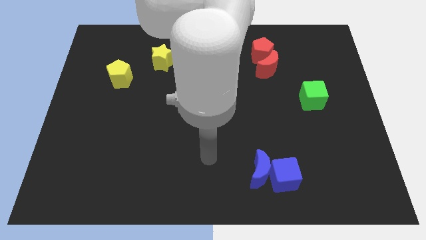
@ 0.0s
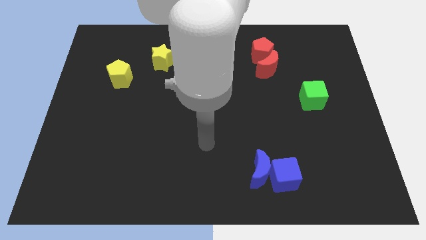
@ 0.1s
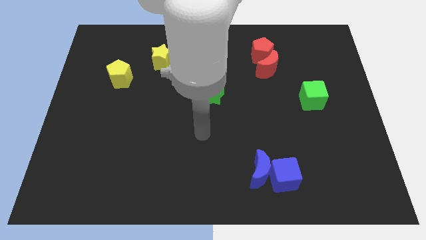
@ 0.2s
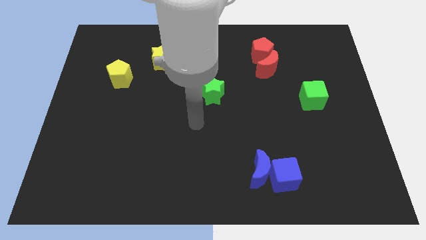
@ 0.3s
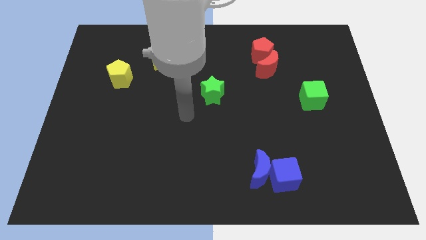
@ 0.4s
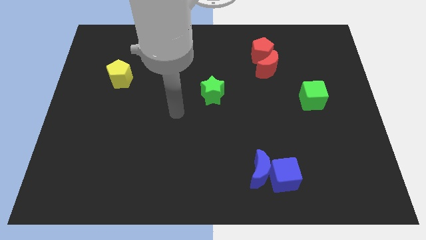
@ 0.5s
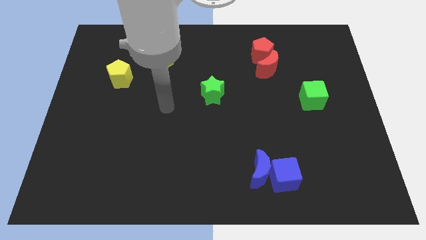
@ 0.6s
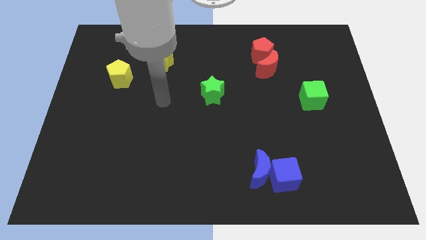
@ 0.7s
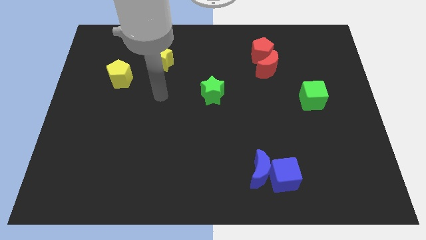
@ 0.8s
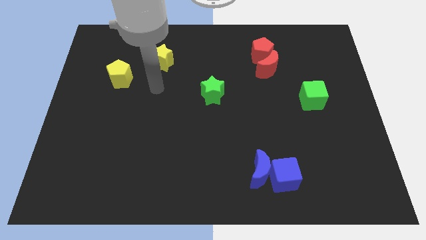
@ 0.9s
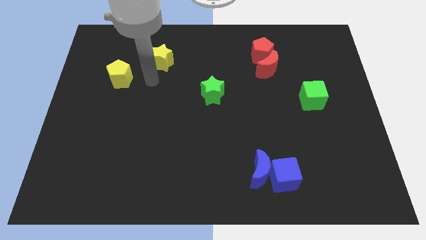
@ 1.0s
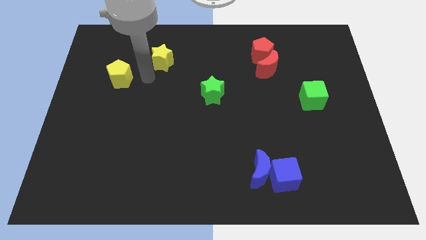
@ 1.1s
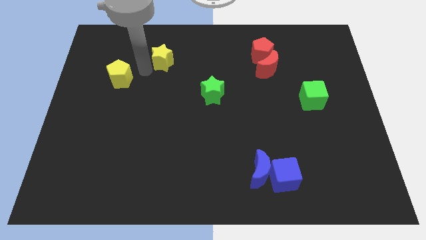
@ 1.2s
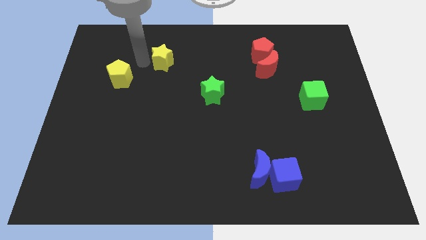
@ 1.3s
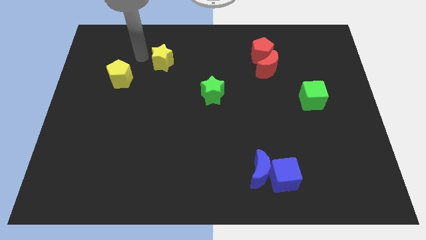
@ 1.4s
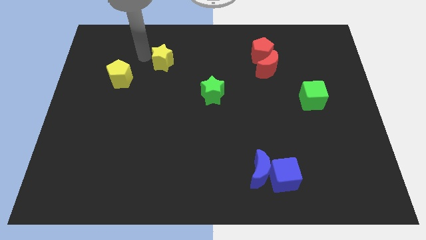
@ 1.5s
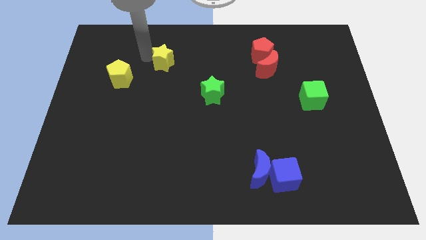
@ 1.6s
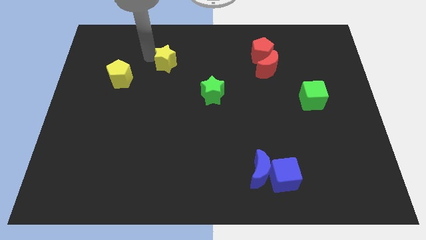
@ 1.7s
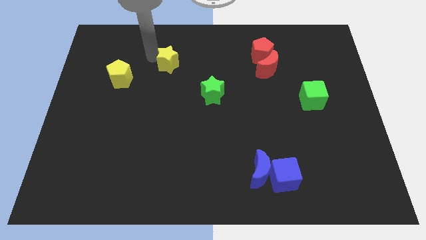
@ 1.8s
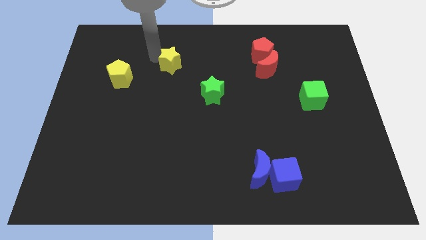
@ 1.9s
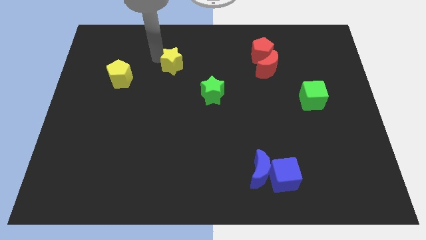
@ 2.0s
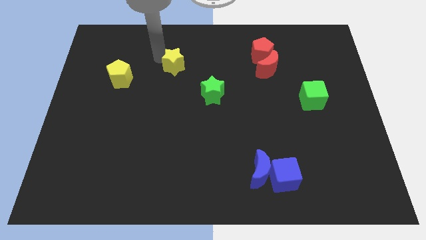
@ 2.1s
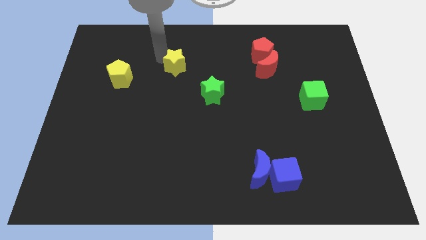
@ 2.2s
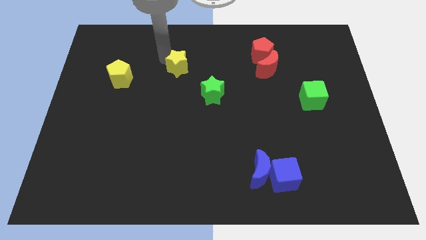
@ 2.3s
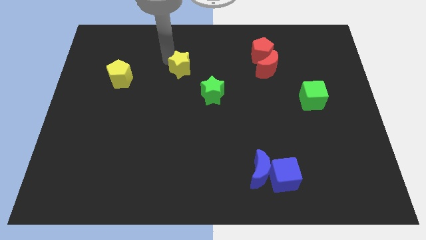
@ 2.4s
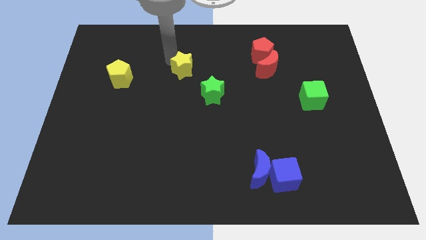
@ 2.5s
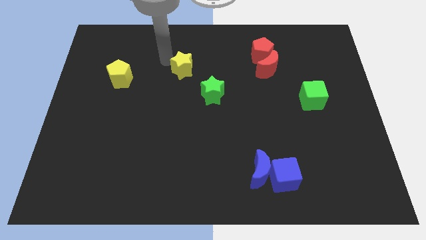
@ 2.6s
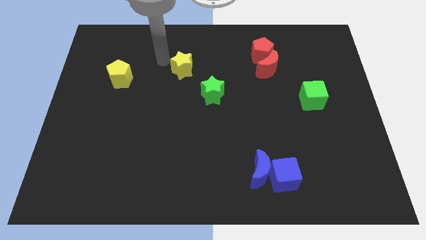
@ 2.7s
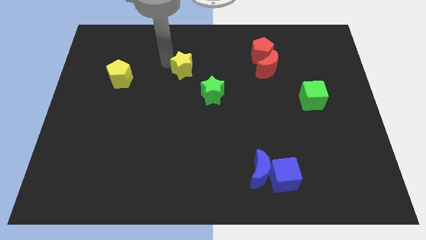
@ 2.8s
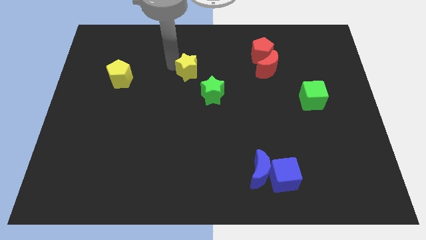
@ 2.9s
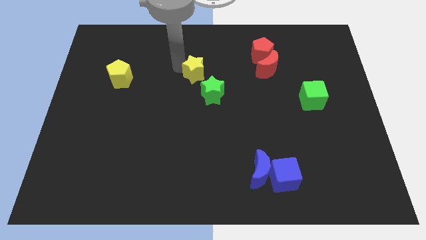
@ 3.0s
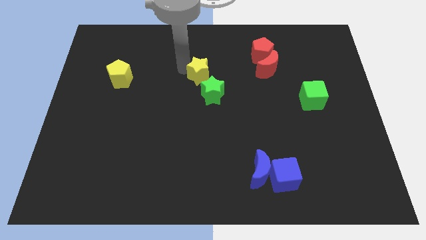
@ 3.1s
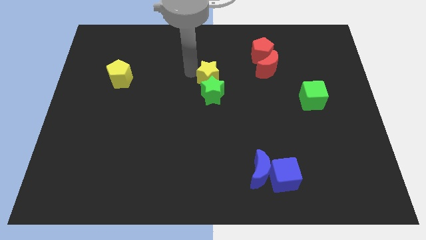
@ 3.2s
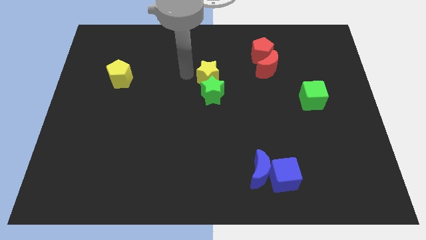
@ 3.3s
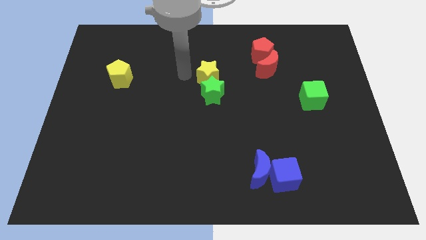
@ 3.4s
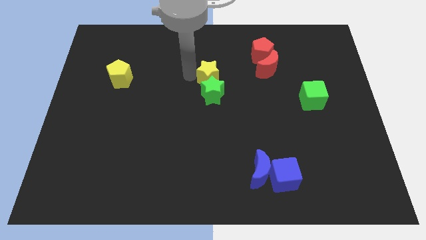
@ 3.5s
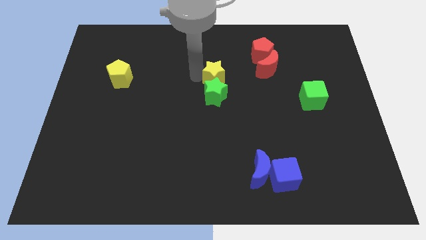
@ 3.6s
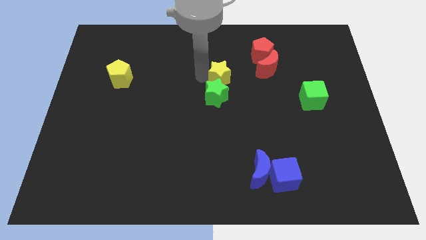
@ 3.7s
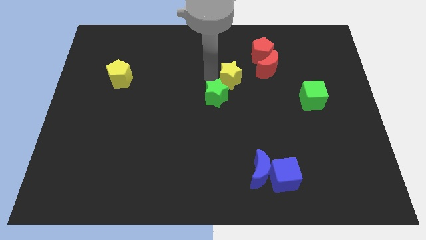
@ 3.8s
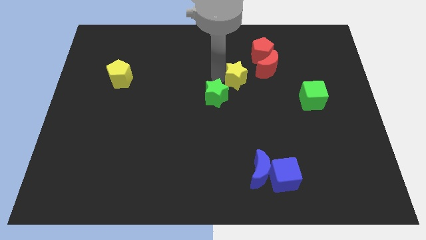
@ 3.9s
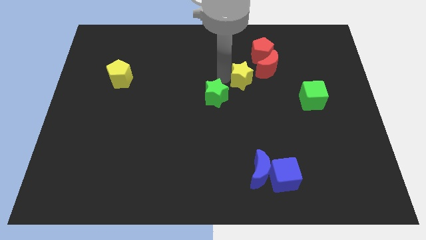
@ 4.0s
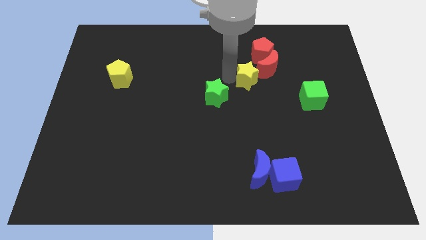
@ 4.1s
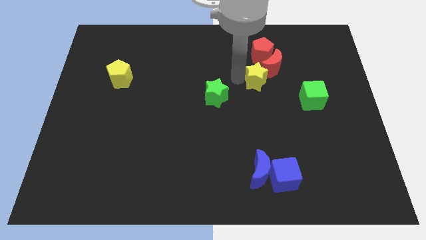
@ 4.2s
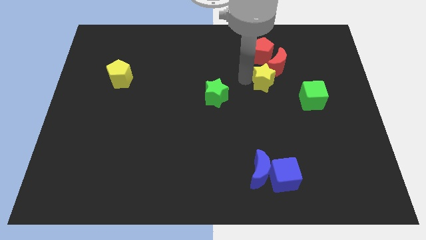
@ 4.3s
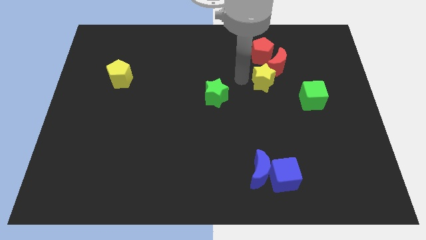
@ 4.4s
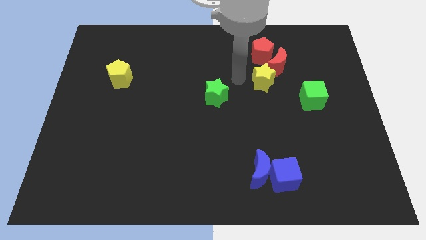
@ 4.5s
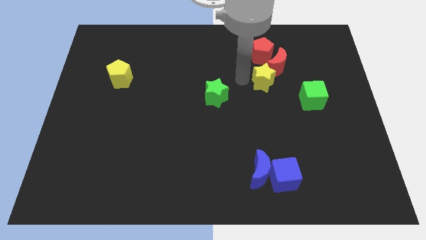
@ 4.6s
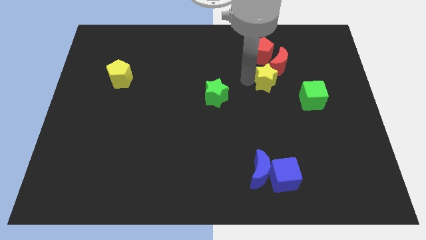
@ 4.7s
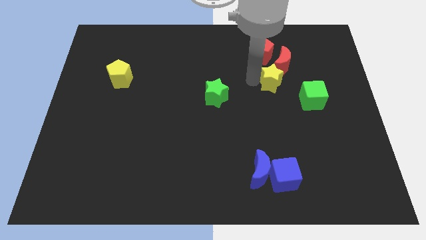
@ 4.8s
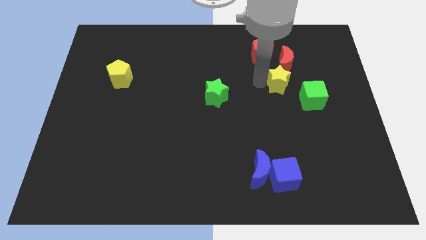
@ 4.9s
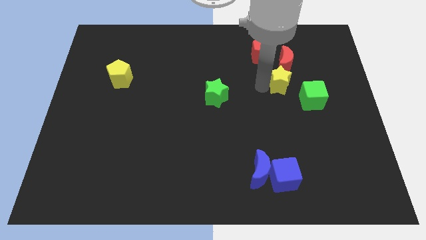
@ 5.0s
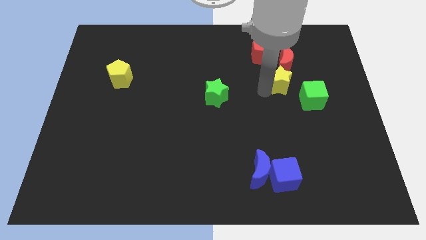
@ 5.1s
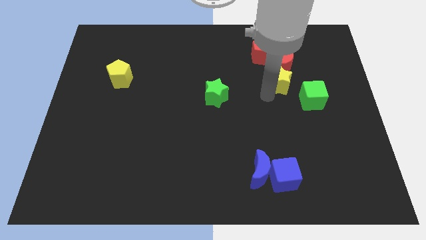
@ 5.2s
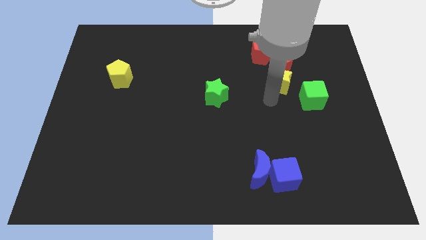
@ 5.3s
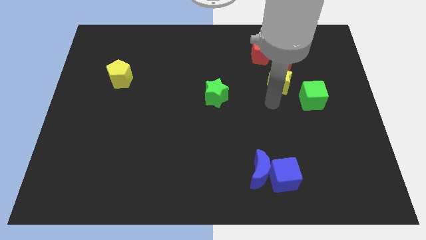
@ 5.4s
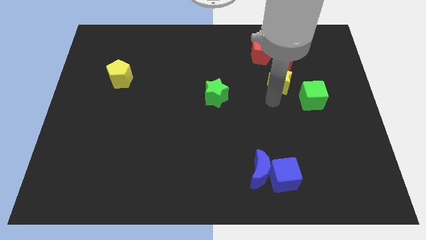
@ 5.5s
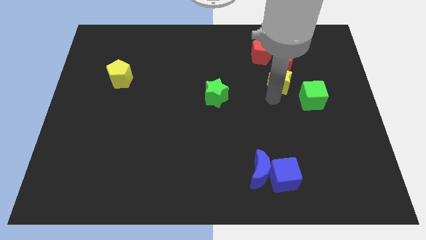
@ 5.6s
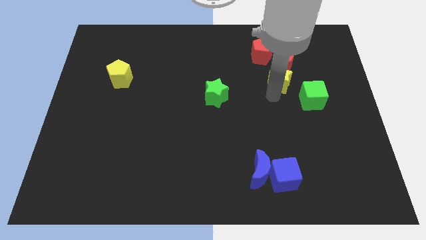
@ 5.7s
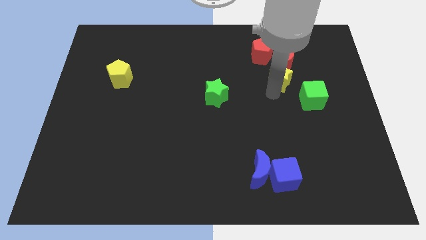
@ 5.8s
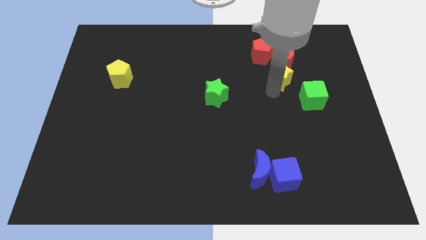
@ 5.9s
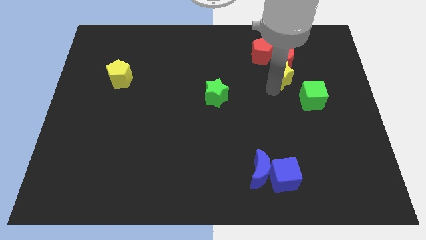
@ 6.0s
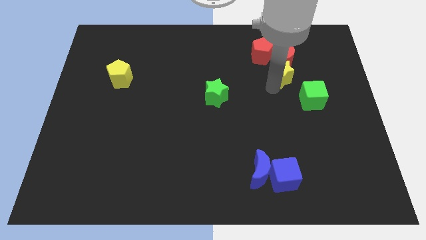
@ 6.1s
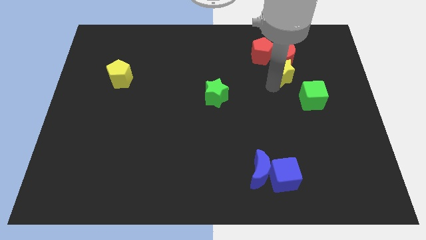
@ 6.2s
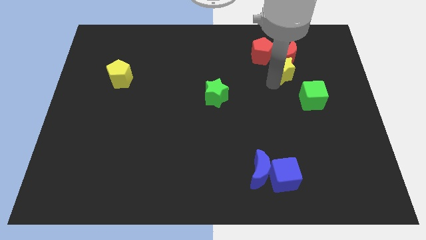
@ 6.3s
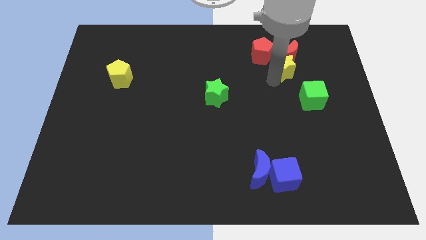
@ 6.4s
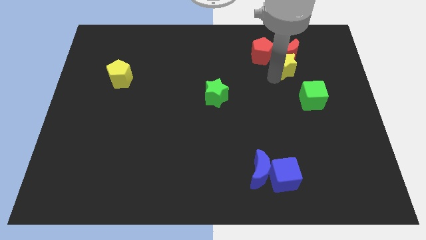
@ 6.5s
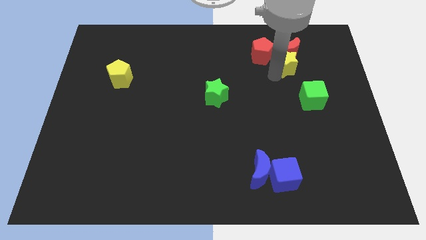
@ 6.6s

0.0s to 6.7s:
put the yellow star to the right side of the red pentagon
